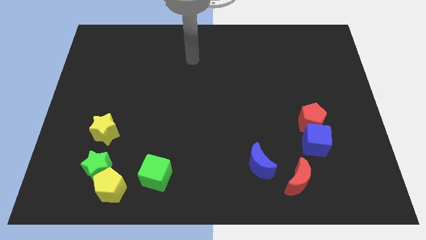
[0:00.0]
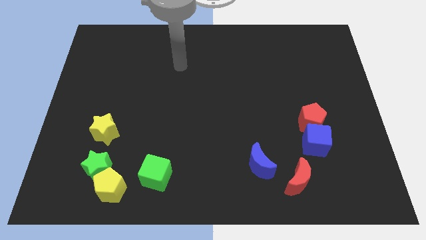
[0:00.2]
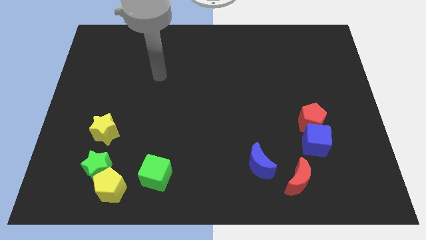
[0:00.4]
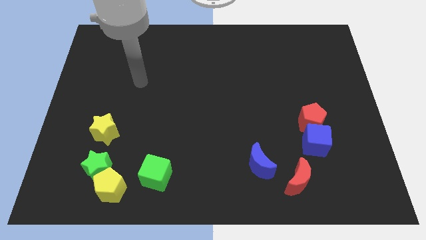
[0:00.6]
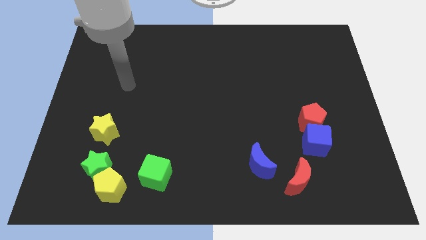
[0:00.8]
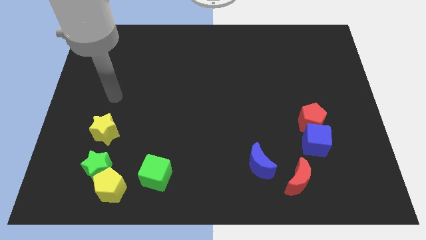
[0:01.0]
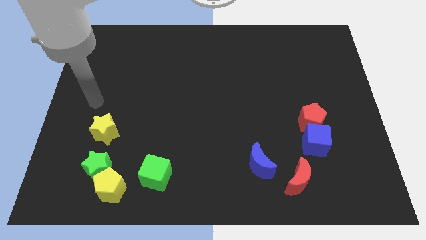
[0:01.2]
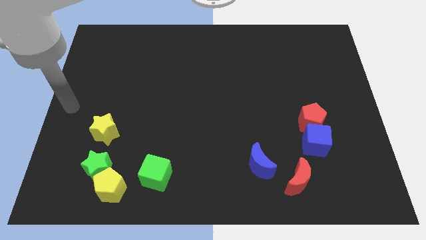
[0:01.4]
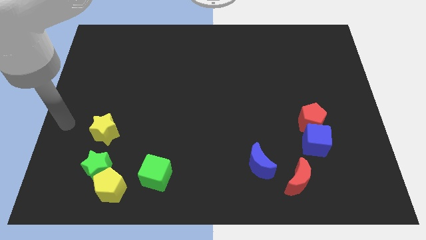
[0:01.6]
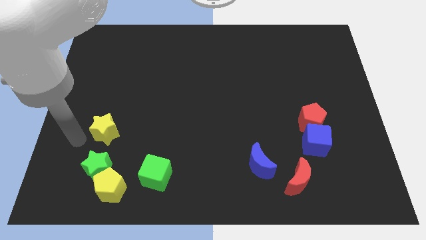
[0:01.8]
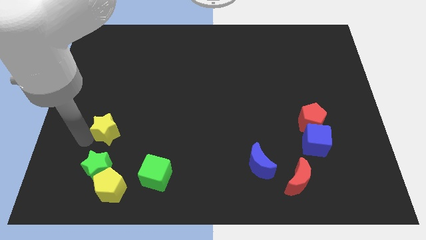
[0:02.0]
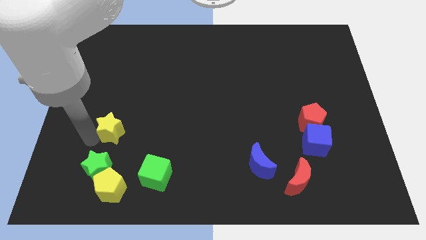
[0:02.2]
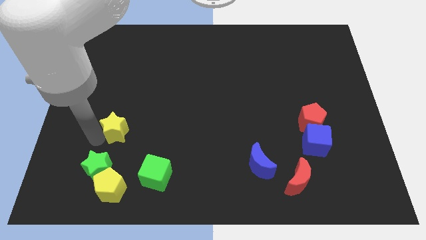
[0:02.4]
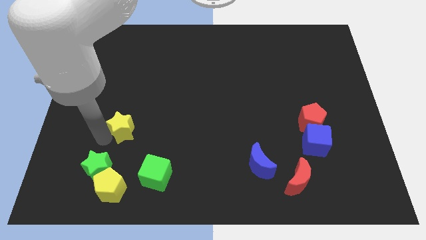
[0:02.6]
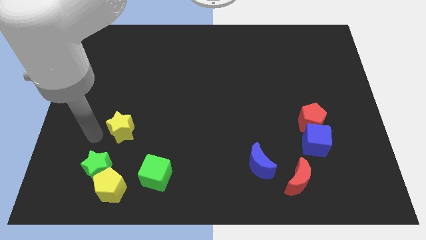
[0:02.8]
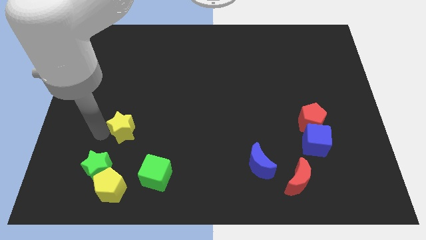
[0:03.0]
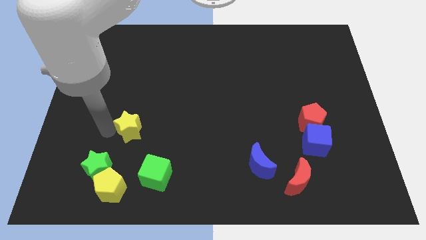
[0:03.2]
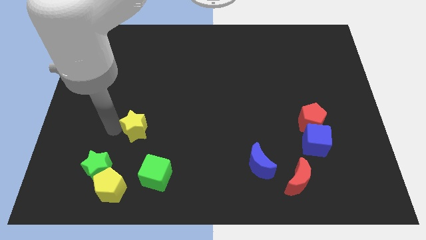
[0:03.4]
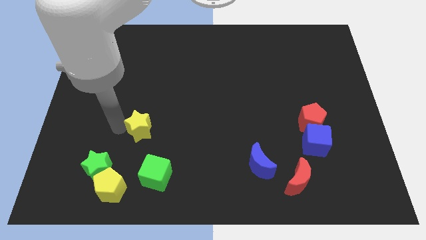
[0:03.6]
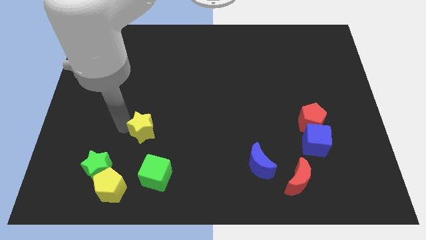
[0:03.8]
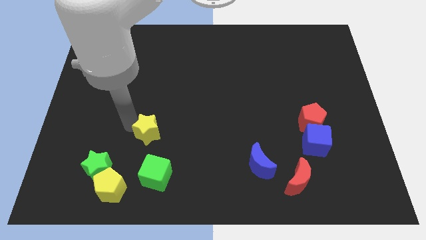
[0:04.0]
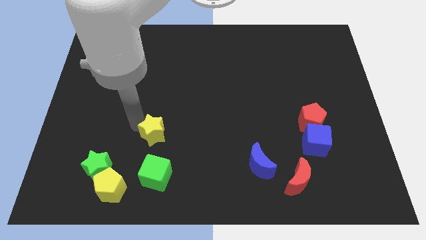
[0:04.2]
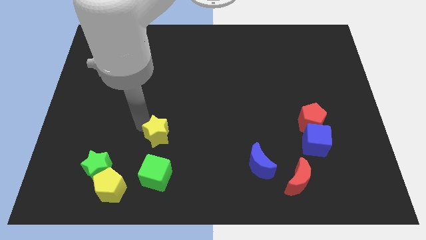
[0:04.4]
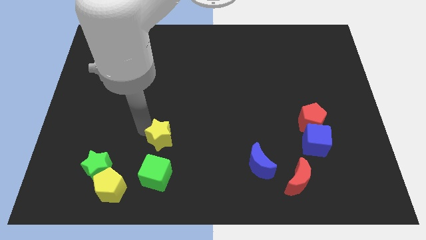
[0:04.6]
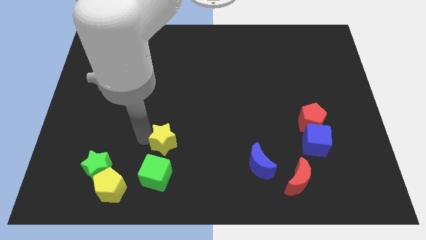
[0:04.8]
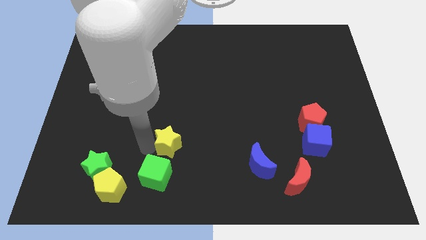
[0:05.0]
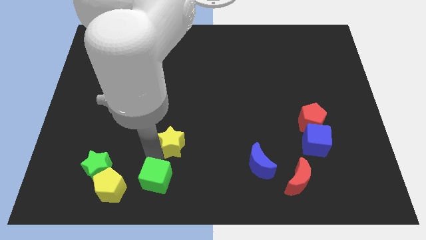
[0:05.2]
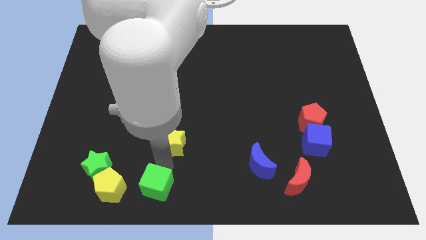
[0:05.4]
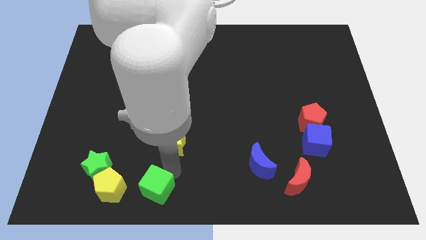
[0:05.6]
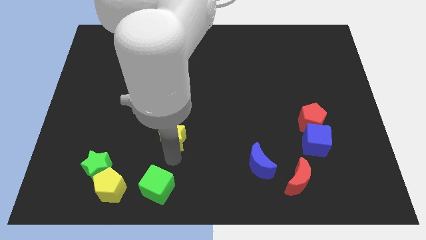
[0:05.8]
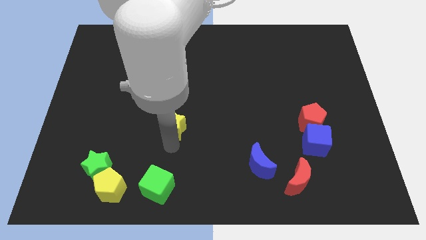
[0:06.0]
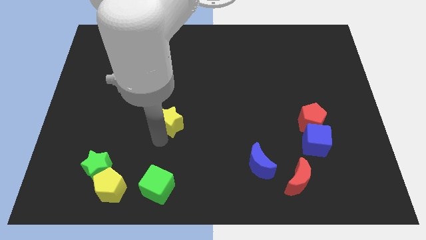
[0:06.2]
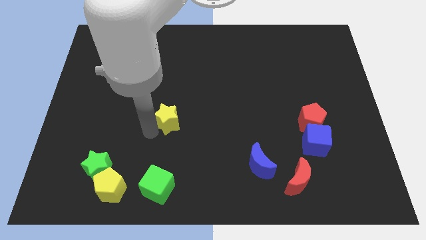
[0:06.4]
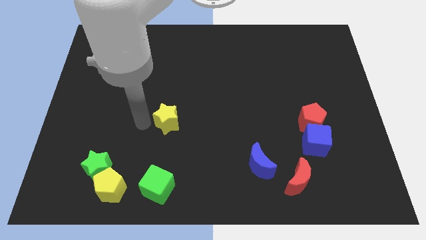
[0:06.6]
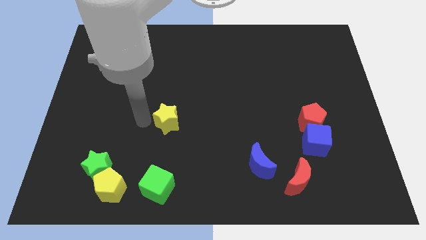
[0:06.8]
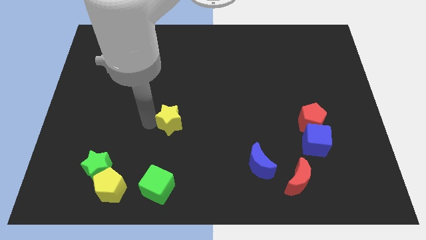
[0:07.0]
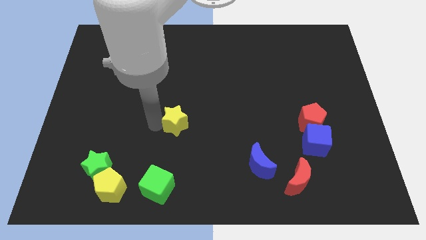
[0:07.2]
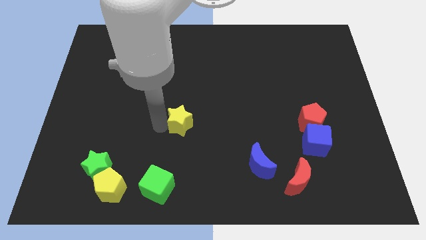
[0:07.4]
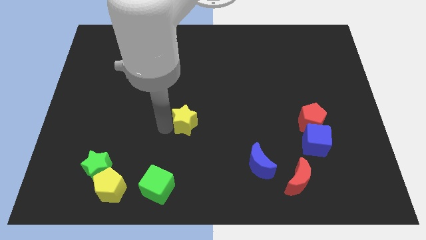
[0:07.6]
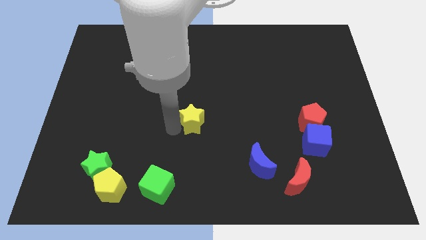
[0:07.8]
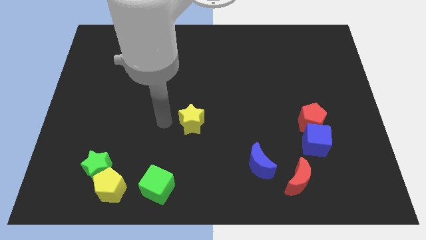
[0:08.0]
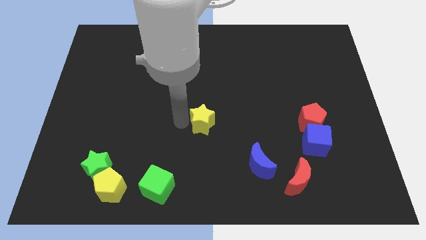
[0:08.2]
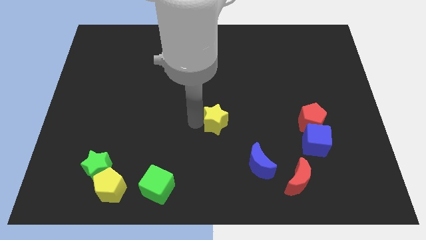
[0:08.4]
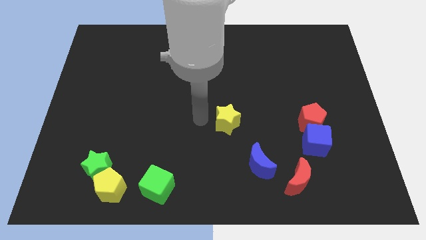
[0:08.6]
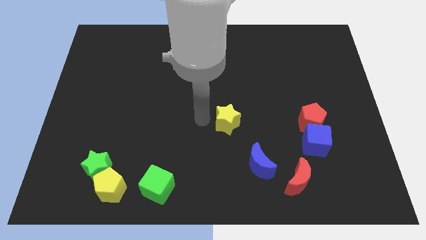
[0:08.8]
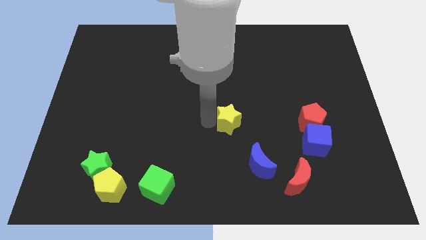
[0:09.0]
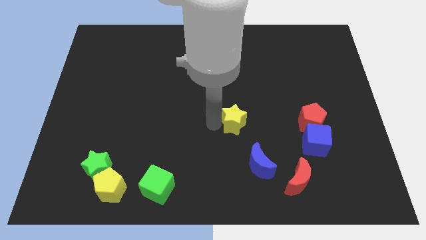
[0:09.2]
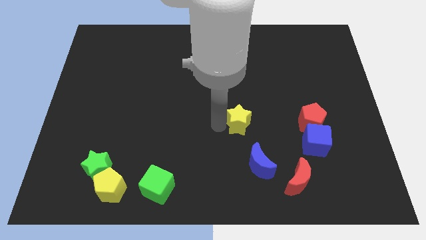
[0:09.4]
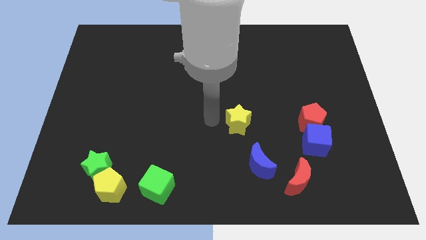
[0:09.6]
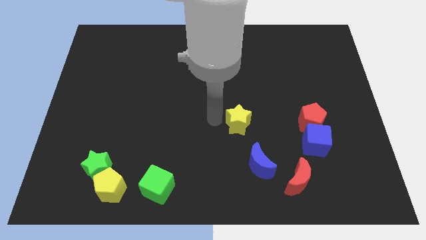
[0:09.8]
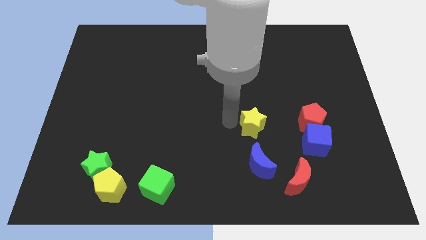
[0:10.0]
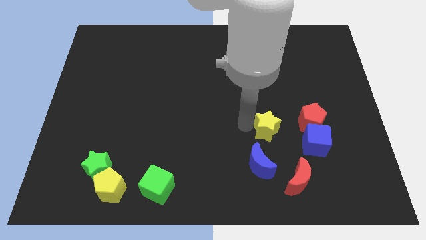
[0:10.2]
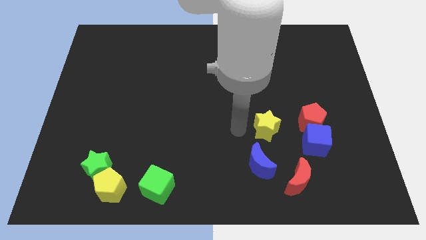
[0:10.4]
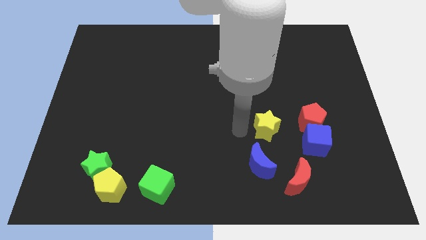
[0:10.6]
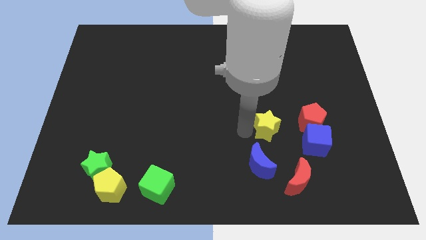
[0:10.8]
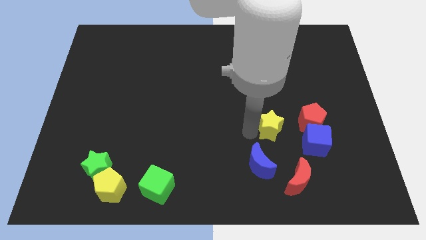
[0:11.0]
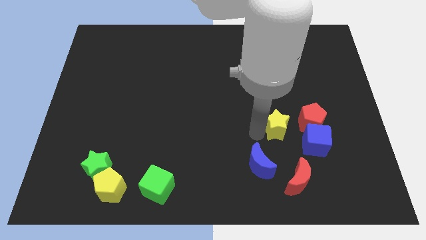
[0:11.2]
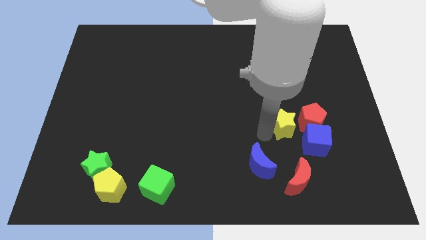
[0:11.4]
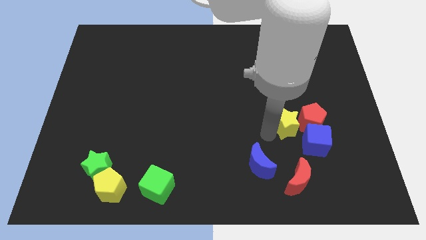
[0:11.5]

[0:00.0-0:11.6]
push the yellow star next to the red pentagon

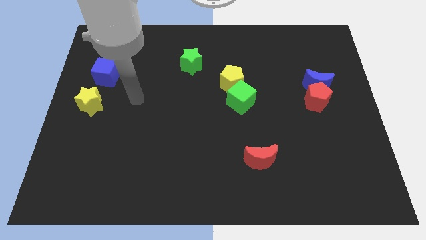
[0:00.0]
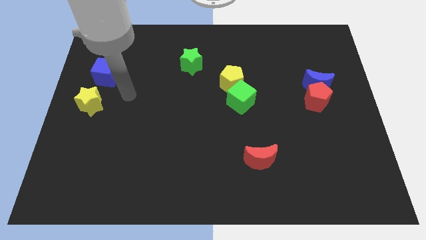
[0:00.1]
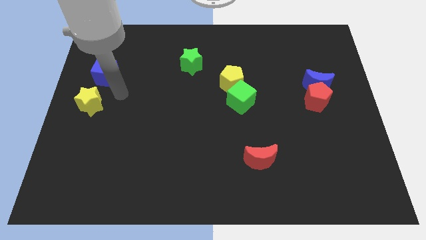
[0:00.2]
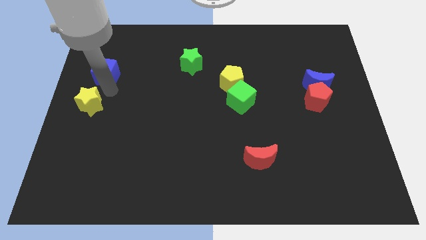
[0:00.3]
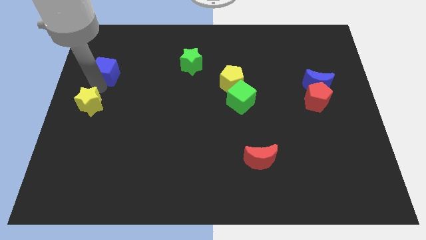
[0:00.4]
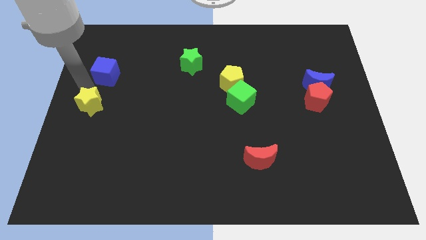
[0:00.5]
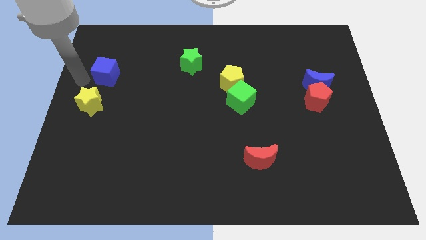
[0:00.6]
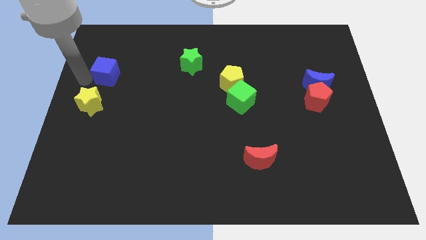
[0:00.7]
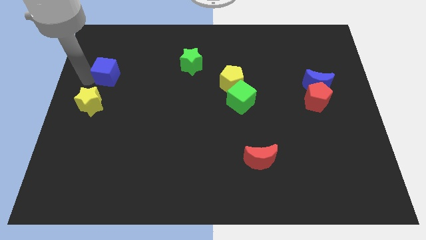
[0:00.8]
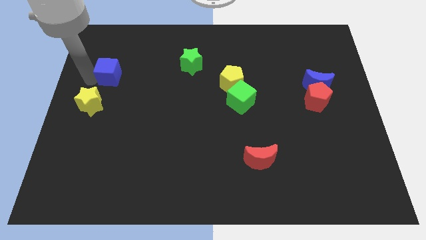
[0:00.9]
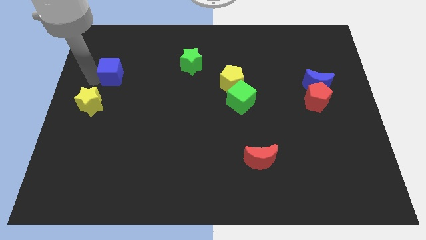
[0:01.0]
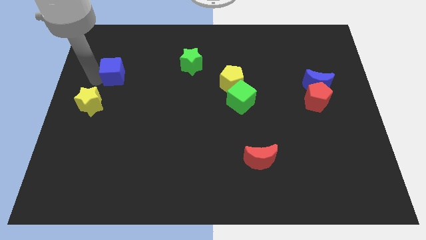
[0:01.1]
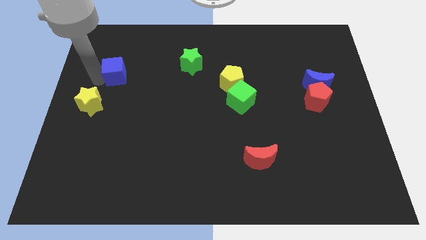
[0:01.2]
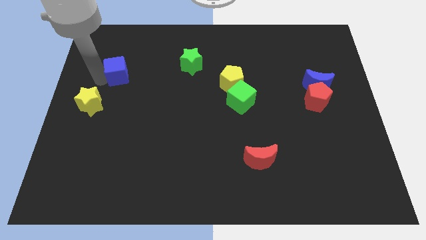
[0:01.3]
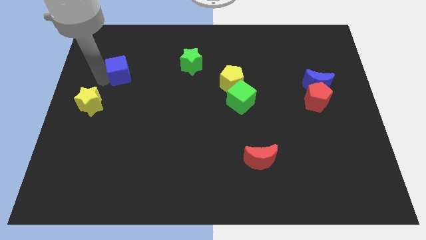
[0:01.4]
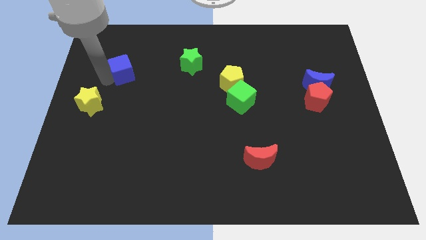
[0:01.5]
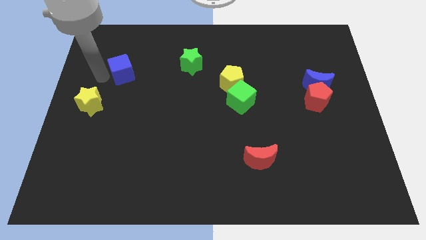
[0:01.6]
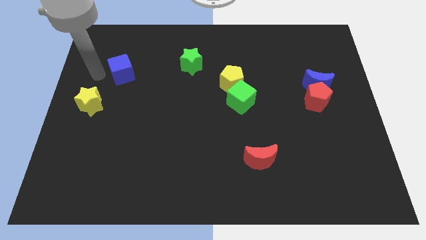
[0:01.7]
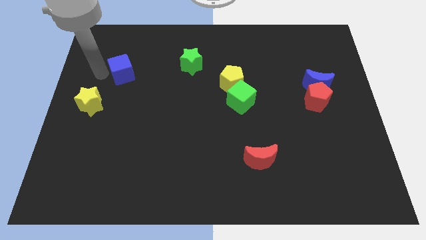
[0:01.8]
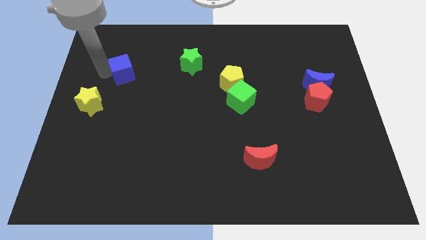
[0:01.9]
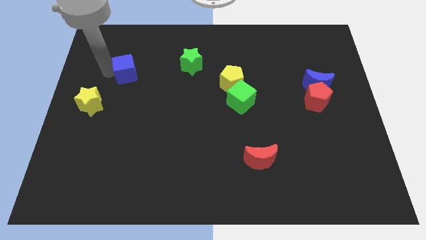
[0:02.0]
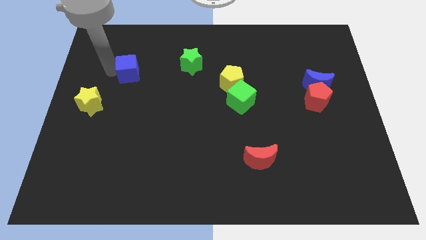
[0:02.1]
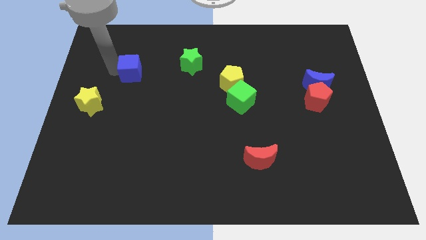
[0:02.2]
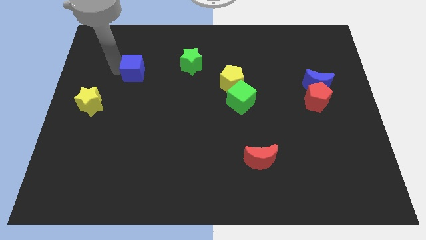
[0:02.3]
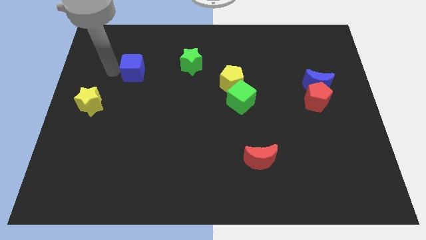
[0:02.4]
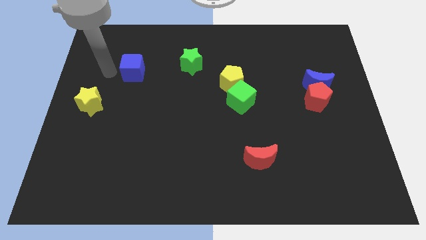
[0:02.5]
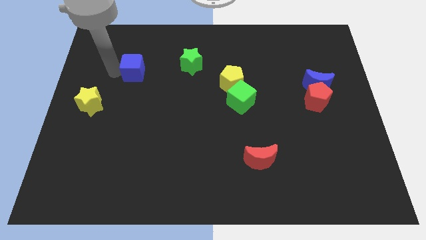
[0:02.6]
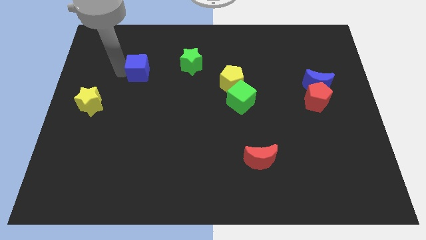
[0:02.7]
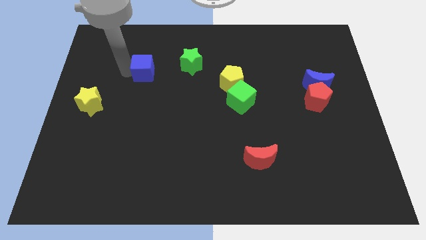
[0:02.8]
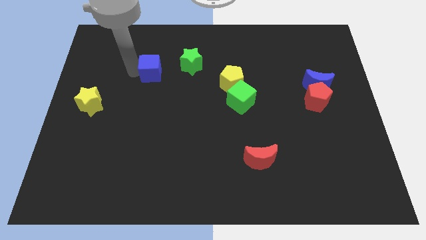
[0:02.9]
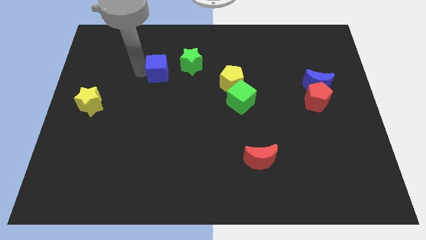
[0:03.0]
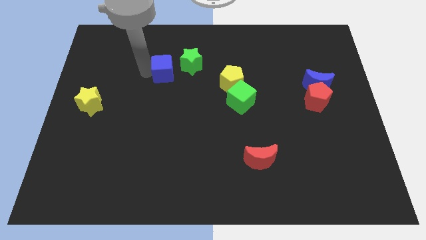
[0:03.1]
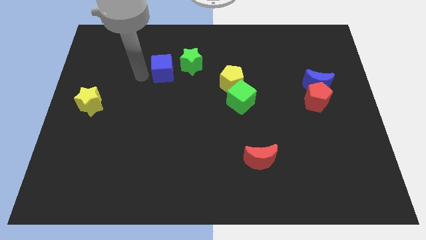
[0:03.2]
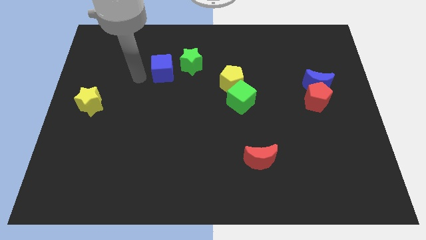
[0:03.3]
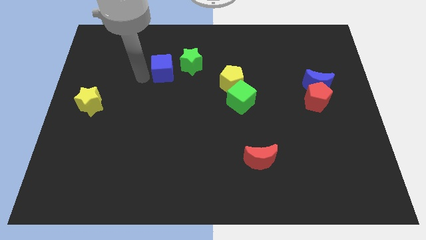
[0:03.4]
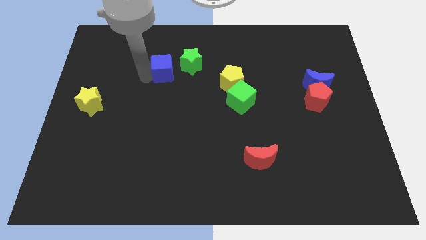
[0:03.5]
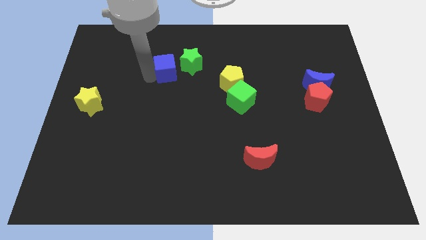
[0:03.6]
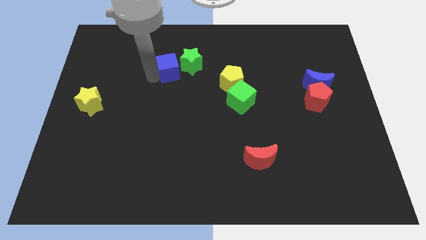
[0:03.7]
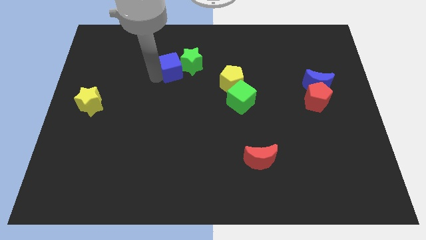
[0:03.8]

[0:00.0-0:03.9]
put the blue cube towards the green star
